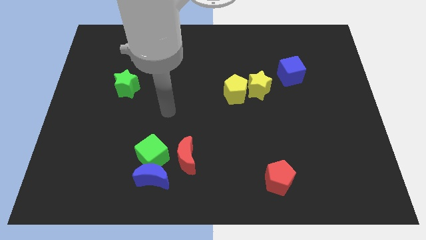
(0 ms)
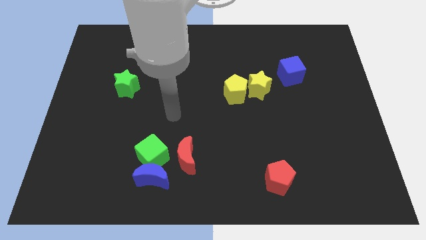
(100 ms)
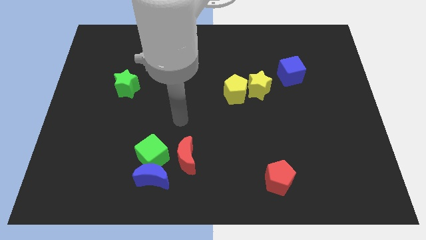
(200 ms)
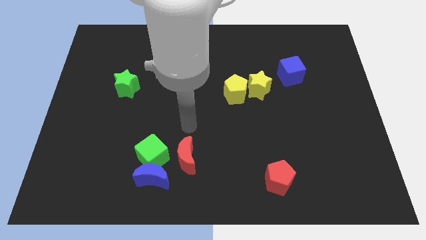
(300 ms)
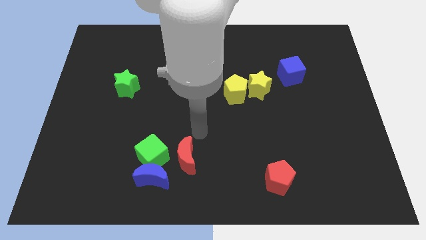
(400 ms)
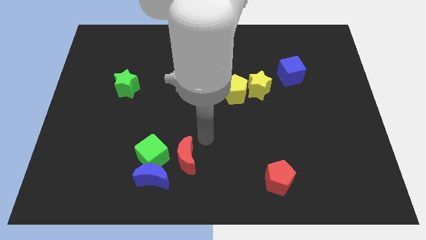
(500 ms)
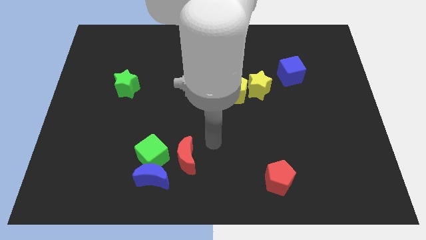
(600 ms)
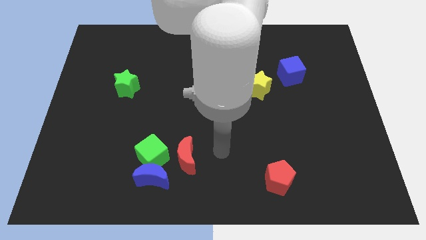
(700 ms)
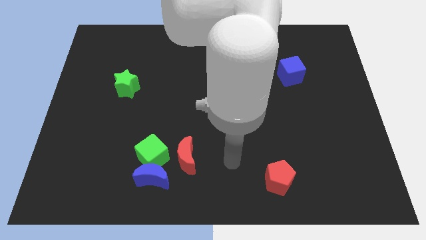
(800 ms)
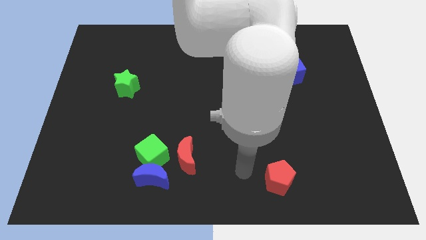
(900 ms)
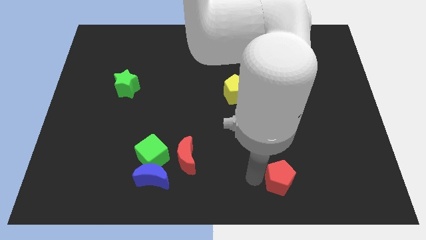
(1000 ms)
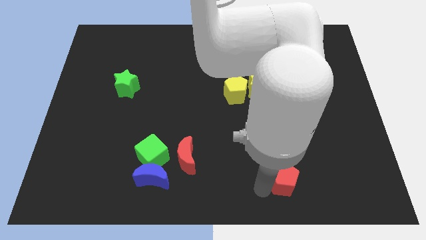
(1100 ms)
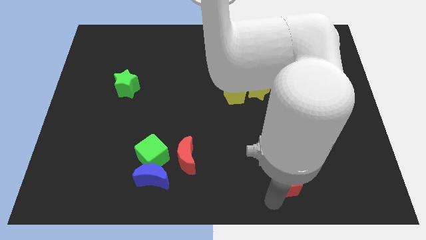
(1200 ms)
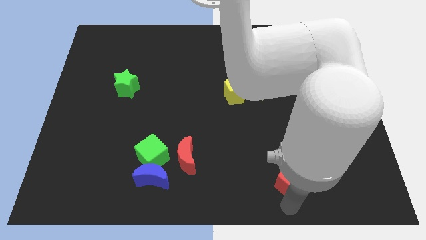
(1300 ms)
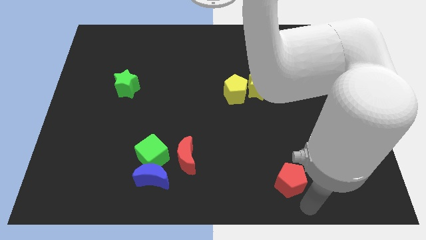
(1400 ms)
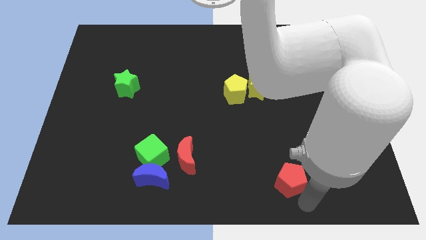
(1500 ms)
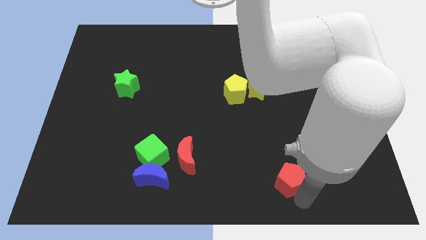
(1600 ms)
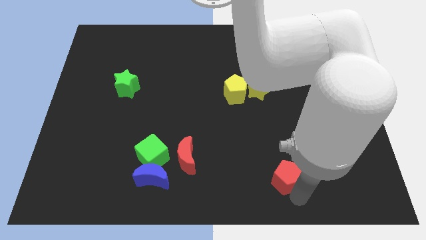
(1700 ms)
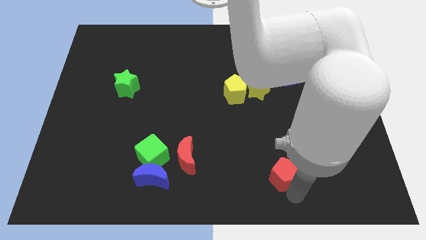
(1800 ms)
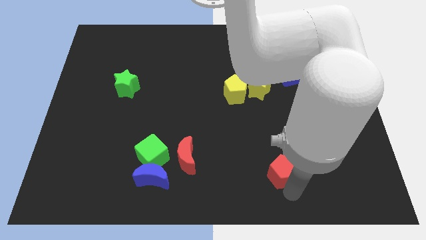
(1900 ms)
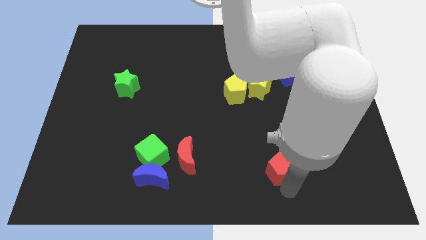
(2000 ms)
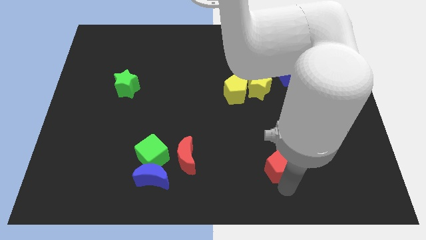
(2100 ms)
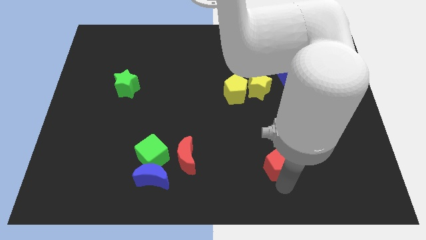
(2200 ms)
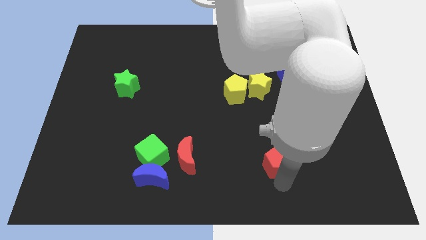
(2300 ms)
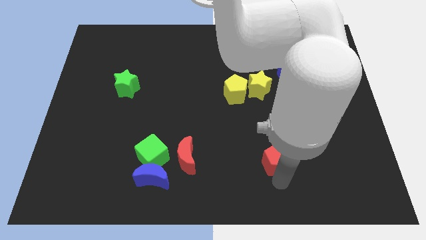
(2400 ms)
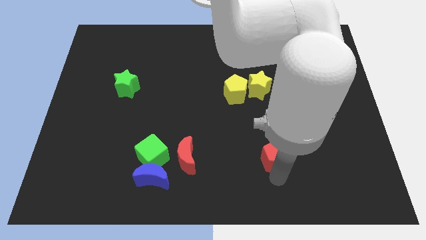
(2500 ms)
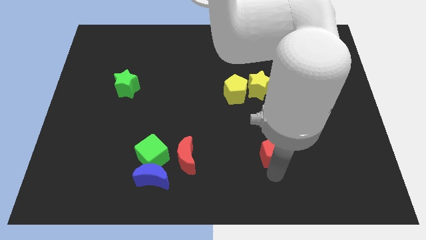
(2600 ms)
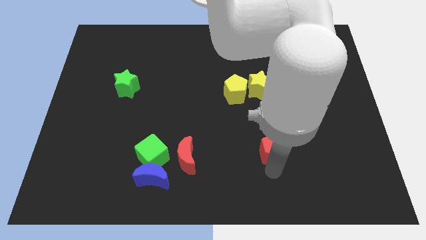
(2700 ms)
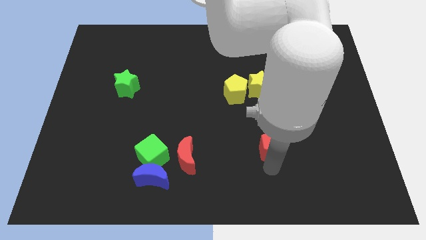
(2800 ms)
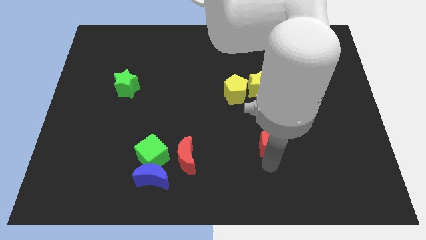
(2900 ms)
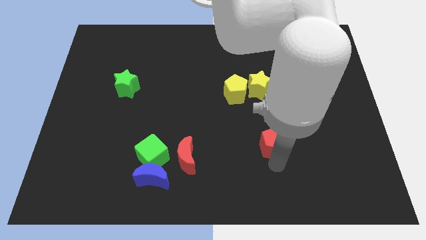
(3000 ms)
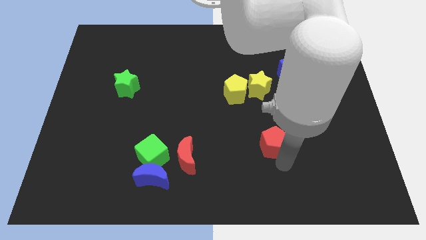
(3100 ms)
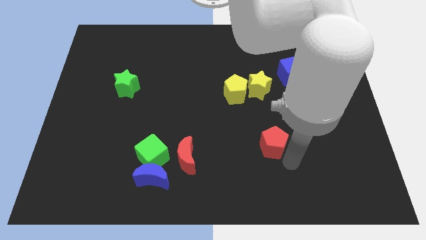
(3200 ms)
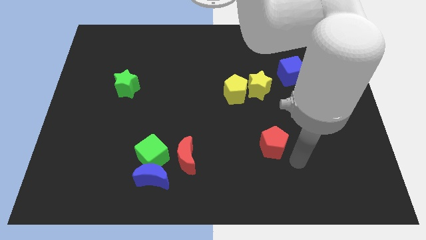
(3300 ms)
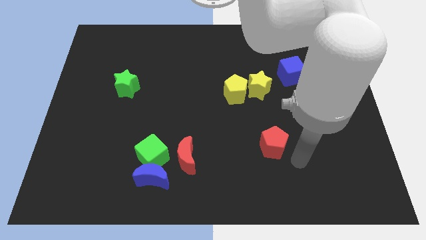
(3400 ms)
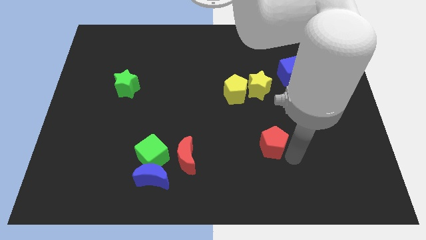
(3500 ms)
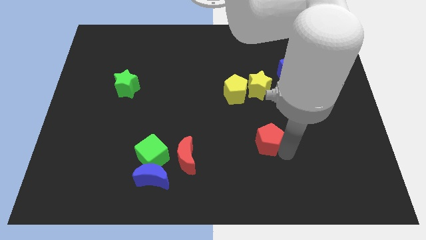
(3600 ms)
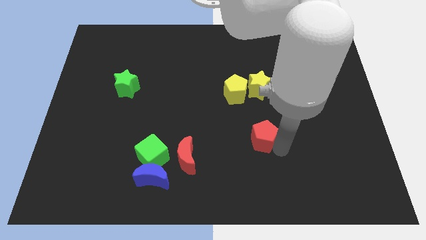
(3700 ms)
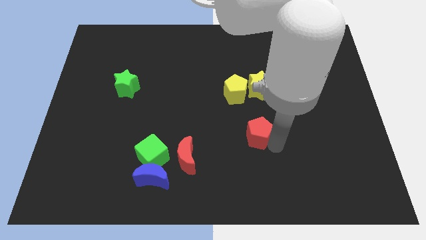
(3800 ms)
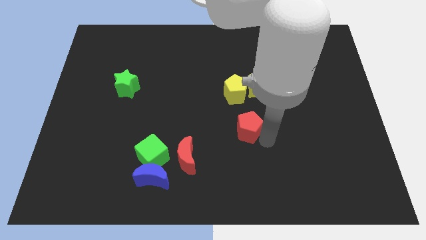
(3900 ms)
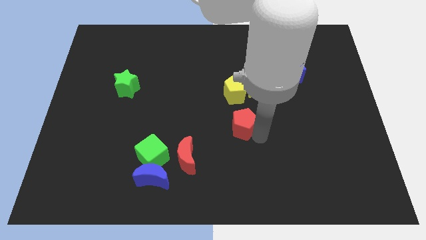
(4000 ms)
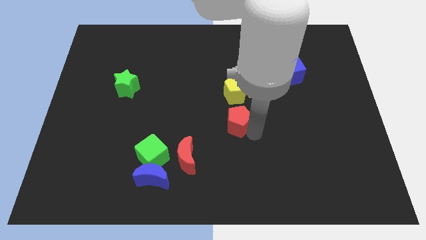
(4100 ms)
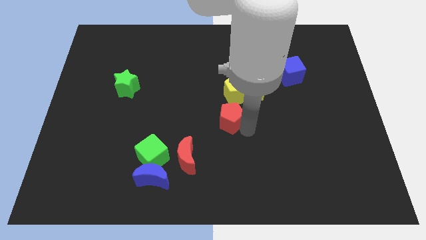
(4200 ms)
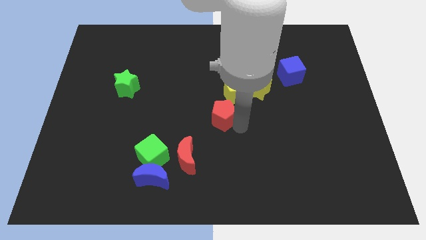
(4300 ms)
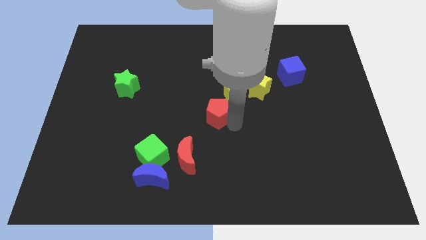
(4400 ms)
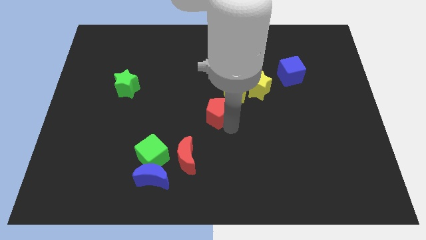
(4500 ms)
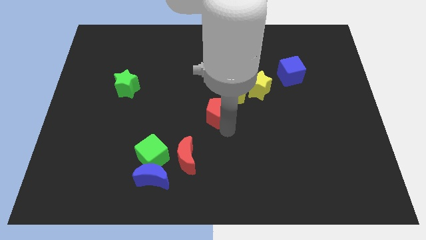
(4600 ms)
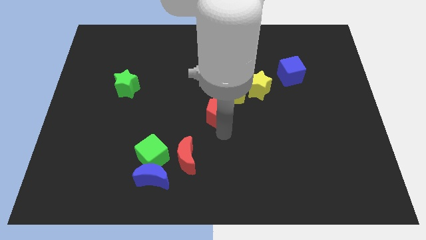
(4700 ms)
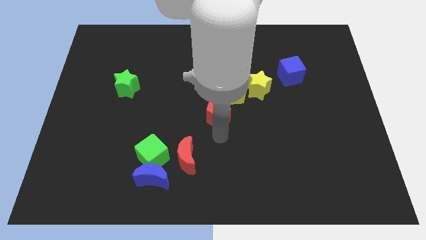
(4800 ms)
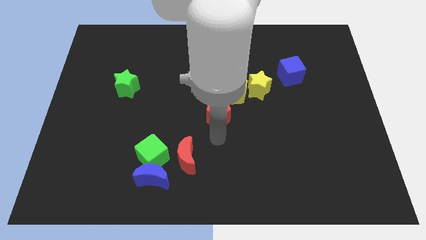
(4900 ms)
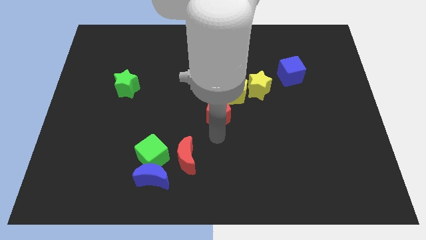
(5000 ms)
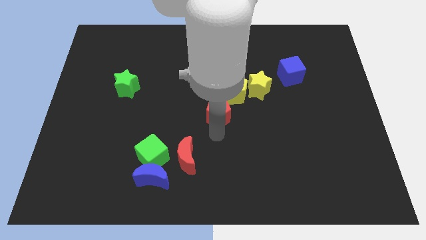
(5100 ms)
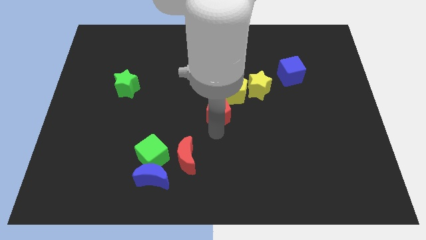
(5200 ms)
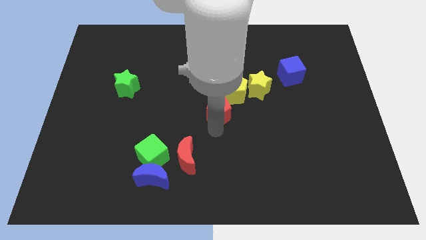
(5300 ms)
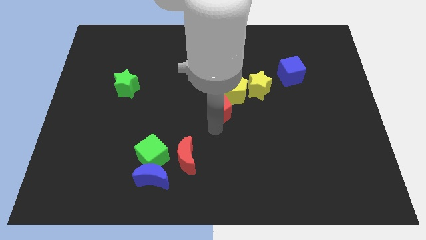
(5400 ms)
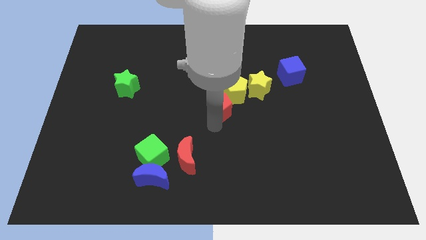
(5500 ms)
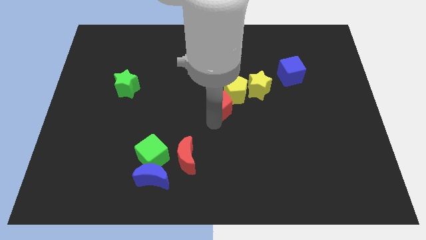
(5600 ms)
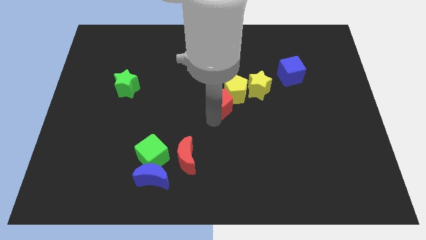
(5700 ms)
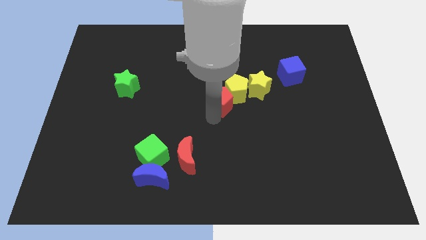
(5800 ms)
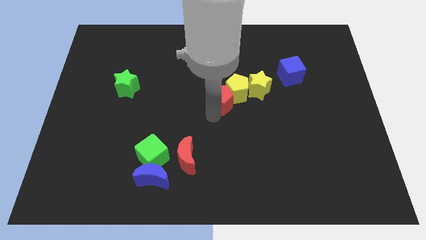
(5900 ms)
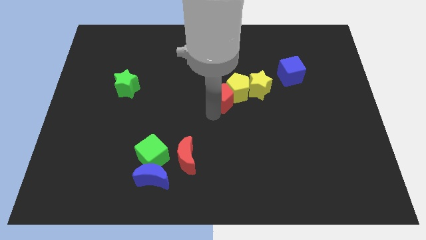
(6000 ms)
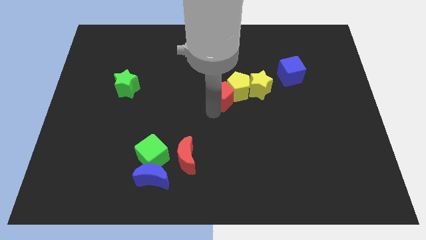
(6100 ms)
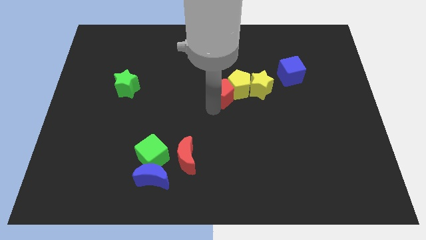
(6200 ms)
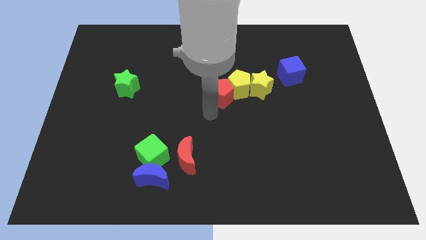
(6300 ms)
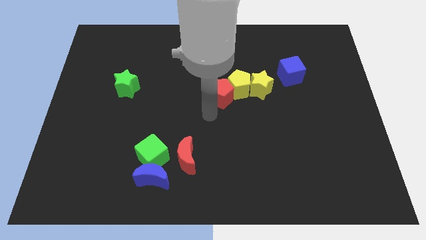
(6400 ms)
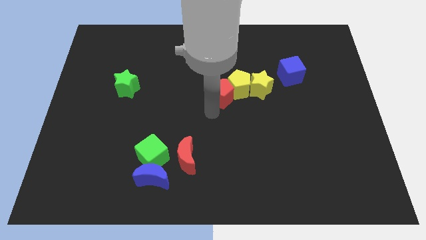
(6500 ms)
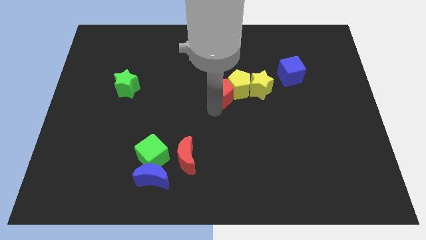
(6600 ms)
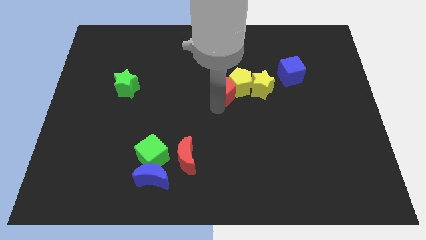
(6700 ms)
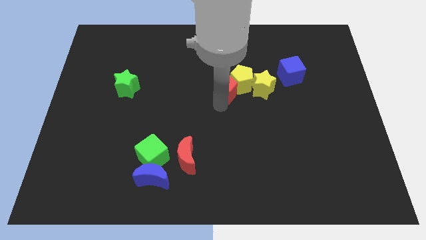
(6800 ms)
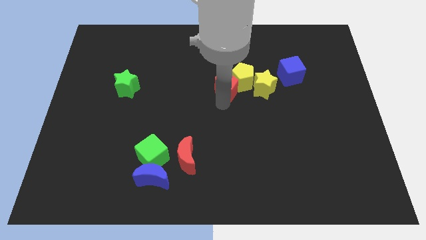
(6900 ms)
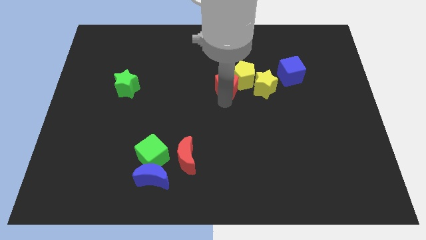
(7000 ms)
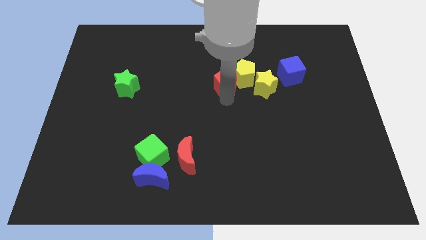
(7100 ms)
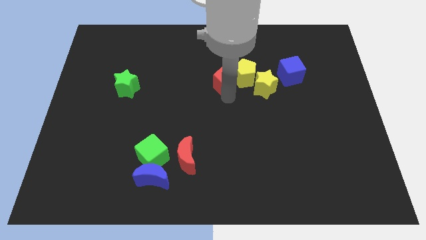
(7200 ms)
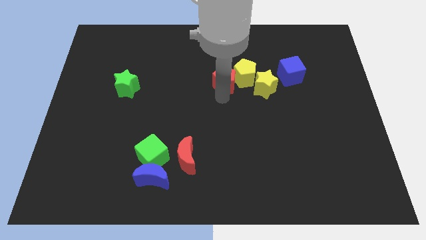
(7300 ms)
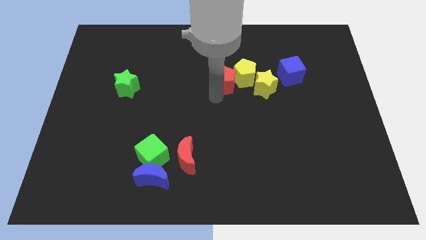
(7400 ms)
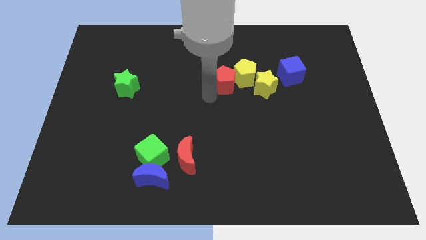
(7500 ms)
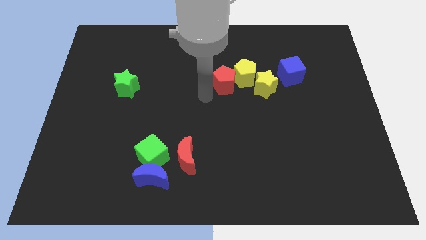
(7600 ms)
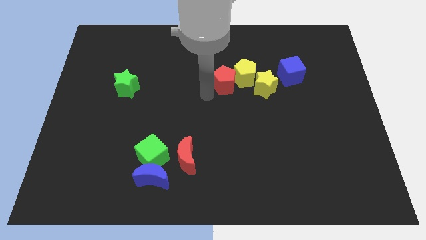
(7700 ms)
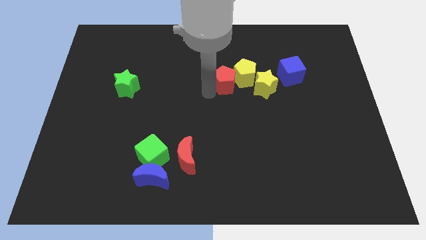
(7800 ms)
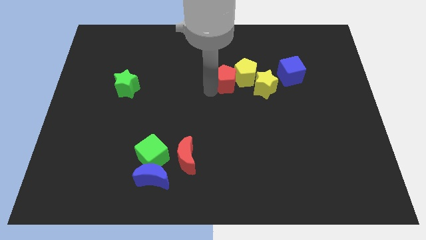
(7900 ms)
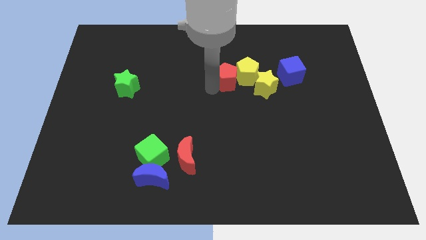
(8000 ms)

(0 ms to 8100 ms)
push the red pentagon to the top left side of the yellow star
